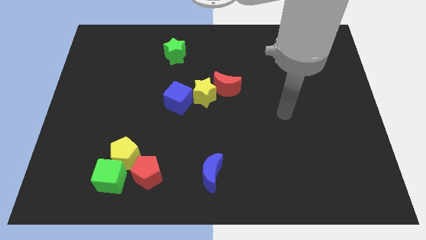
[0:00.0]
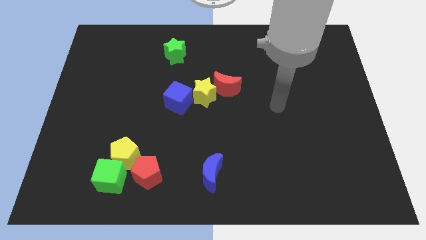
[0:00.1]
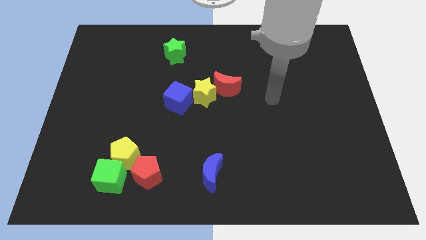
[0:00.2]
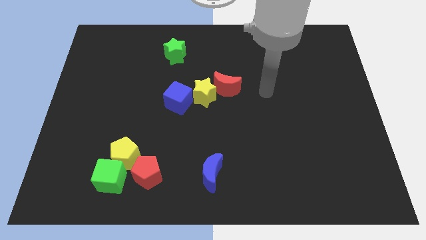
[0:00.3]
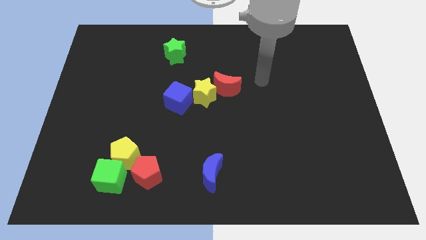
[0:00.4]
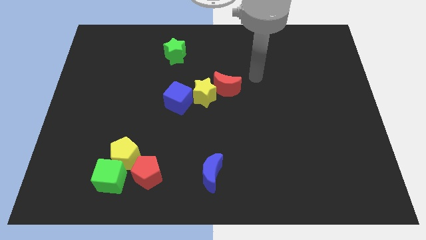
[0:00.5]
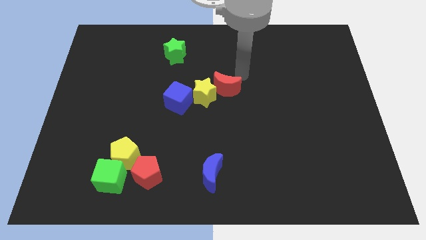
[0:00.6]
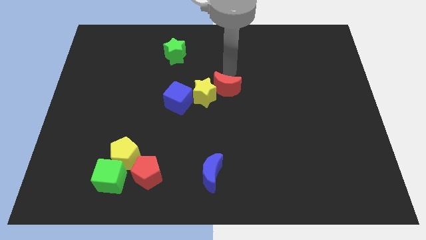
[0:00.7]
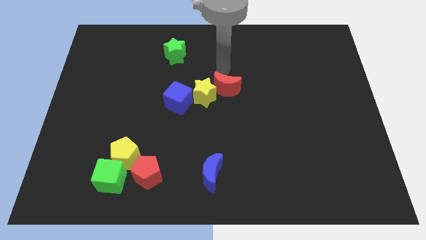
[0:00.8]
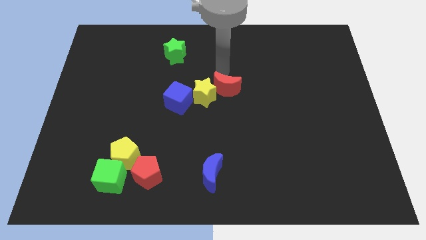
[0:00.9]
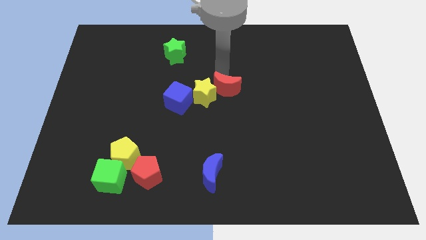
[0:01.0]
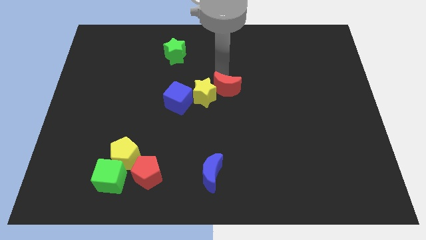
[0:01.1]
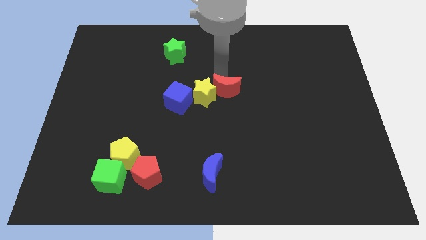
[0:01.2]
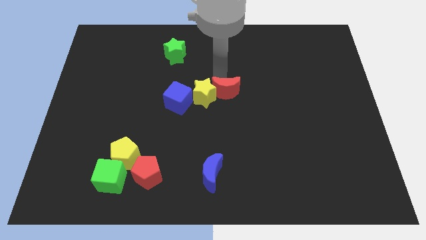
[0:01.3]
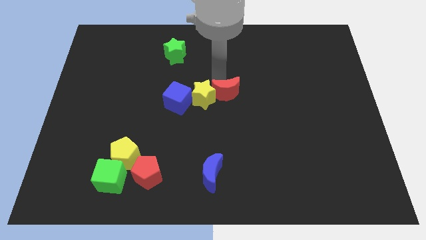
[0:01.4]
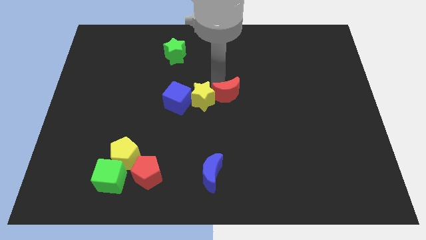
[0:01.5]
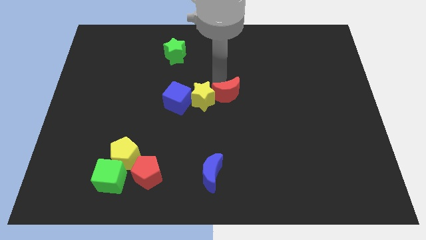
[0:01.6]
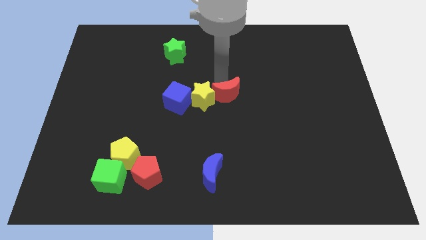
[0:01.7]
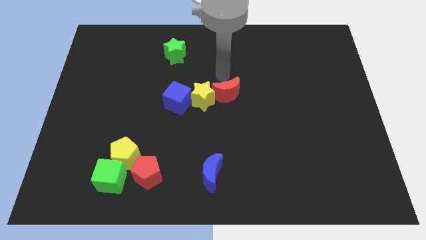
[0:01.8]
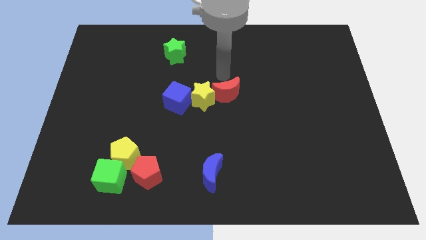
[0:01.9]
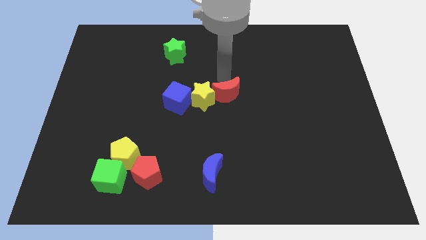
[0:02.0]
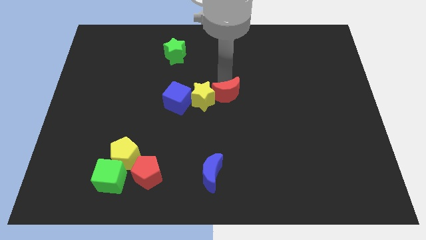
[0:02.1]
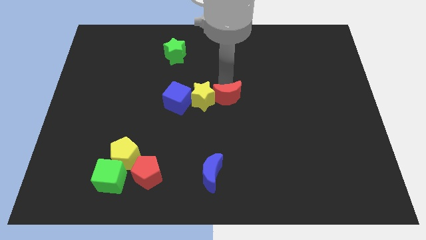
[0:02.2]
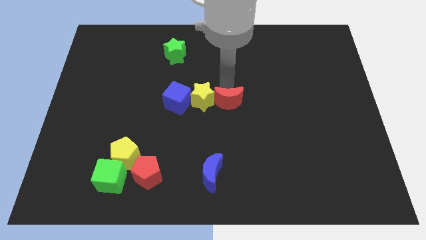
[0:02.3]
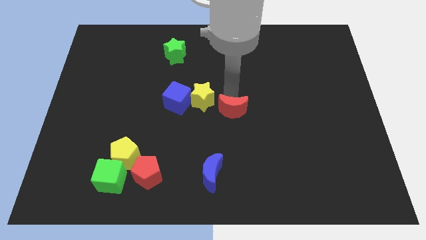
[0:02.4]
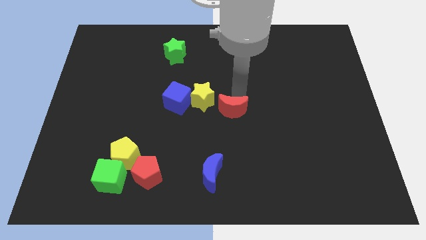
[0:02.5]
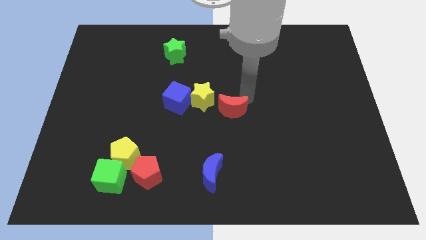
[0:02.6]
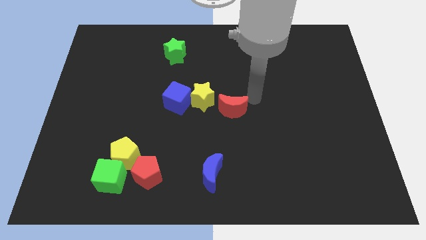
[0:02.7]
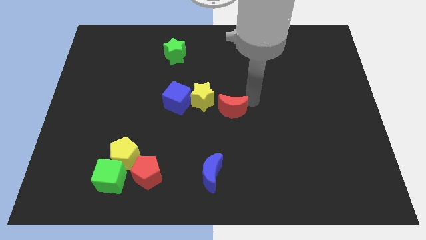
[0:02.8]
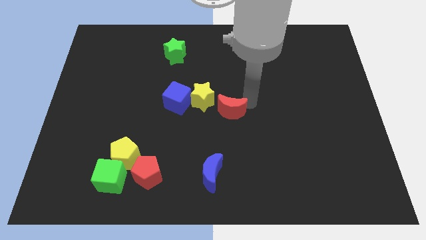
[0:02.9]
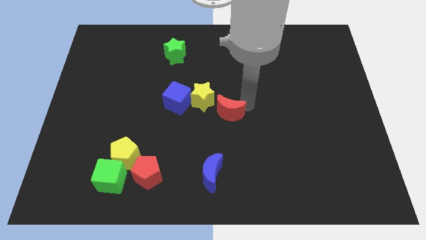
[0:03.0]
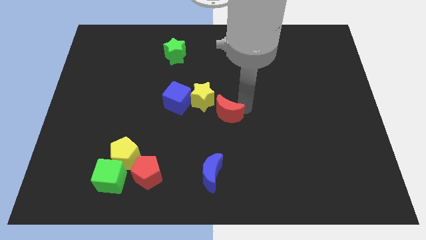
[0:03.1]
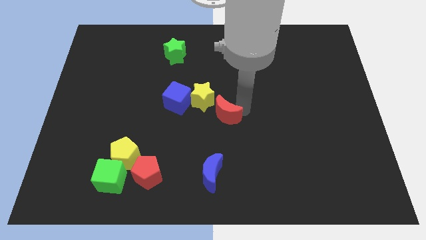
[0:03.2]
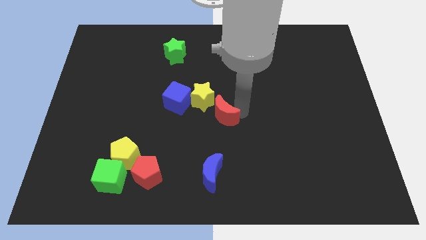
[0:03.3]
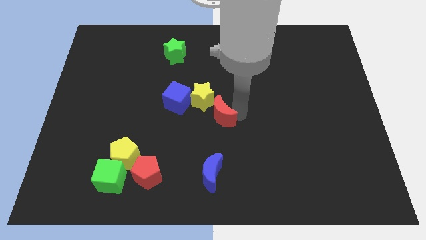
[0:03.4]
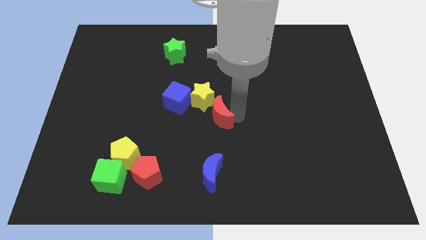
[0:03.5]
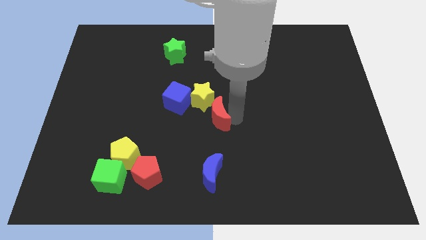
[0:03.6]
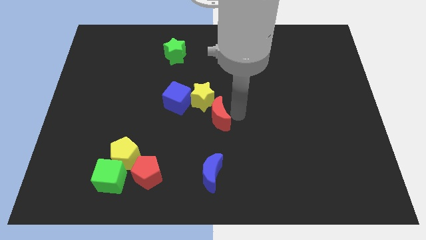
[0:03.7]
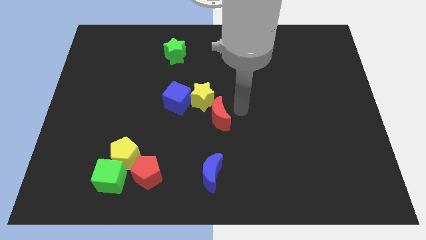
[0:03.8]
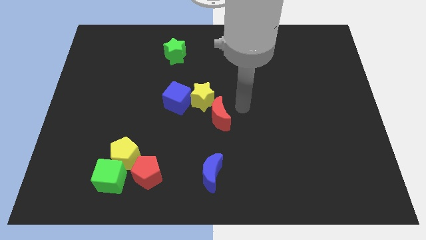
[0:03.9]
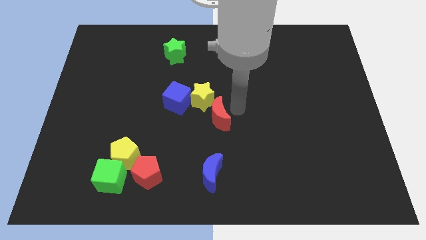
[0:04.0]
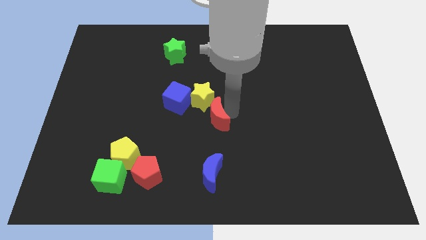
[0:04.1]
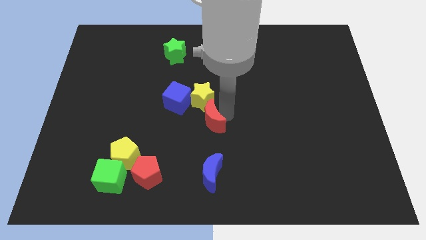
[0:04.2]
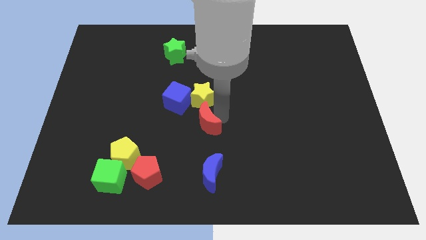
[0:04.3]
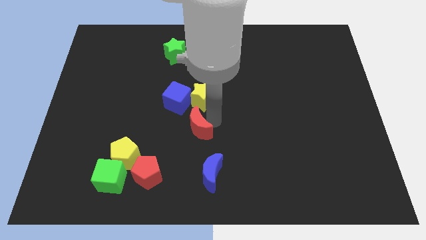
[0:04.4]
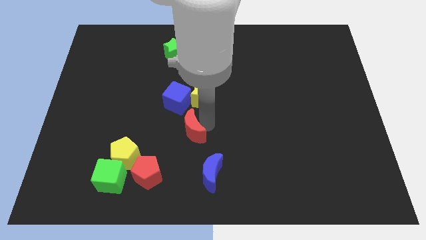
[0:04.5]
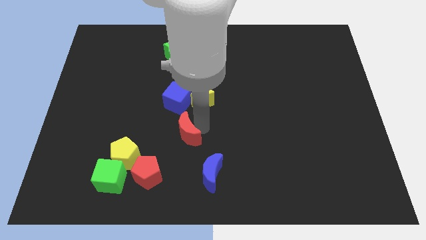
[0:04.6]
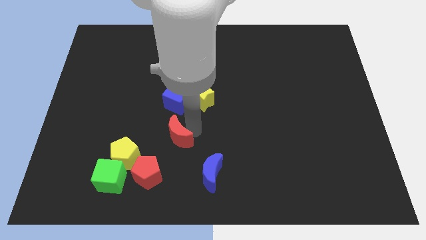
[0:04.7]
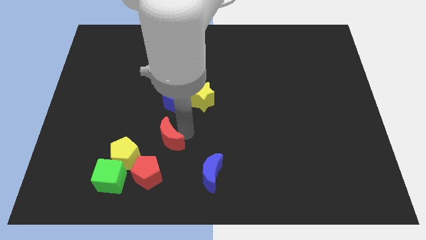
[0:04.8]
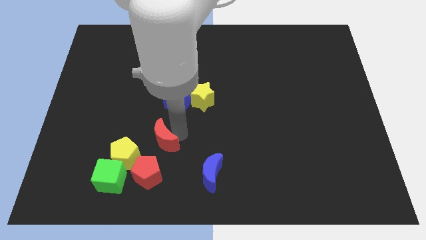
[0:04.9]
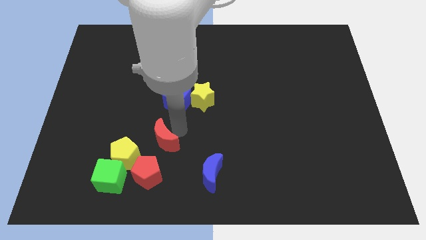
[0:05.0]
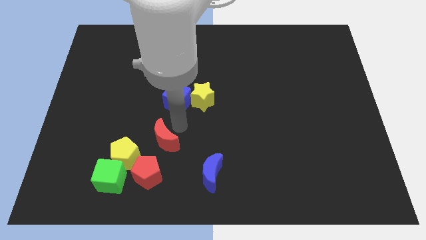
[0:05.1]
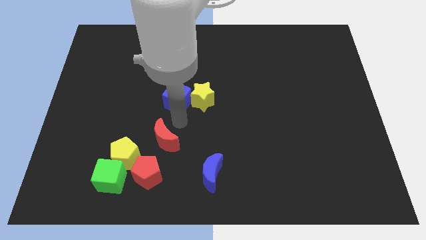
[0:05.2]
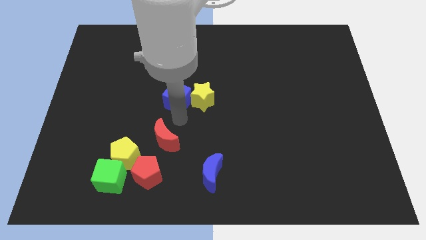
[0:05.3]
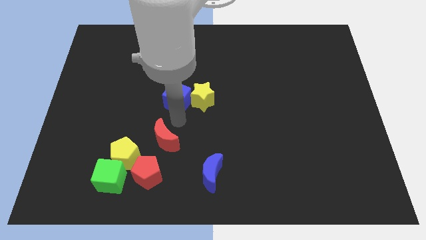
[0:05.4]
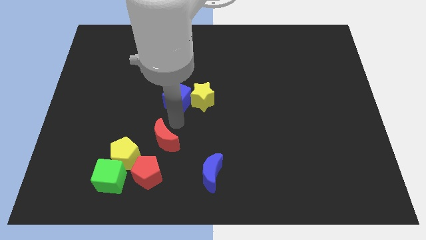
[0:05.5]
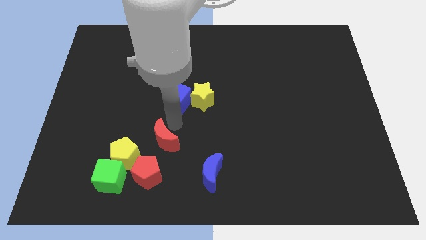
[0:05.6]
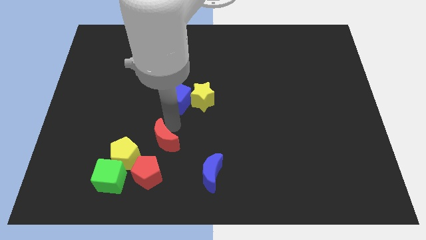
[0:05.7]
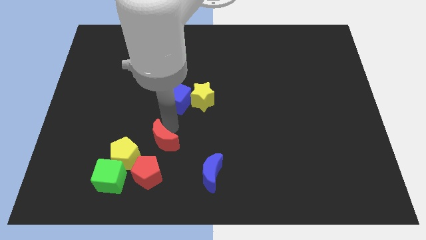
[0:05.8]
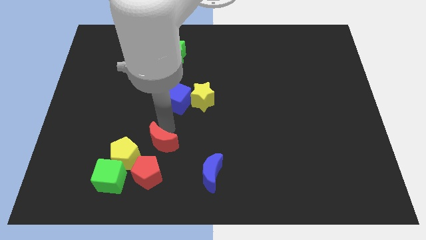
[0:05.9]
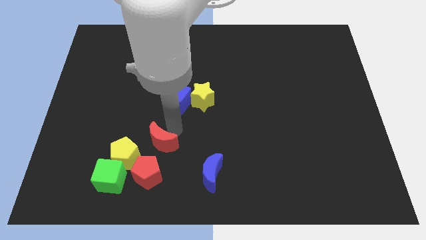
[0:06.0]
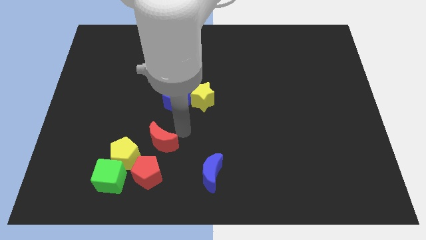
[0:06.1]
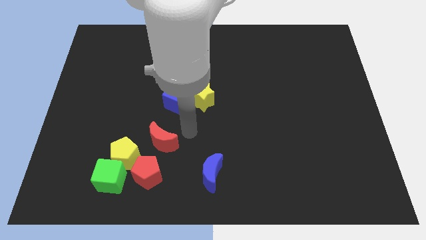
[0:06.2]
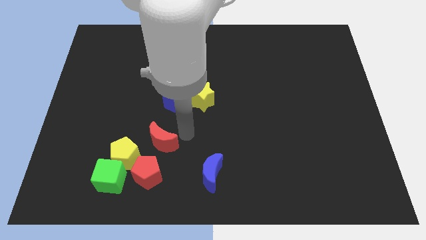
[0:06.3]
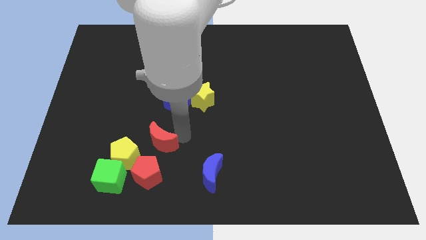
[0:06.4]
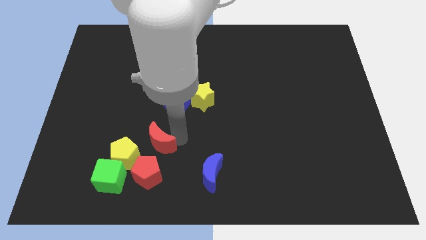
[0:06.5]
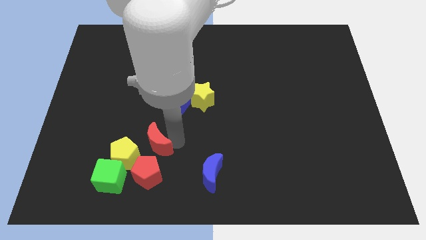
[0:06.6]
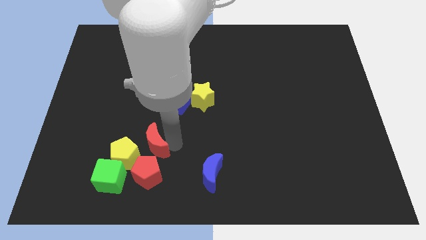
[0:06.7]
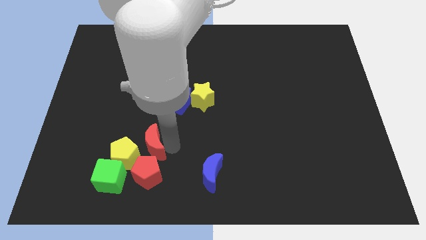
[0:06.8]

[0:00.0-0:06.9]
slide the red moon next to the yellow pentagon
